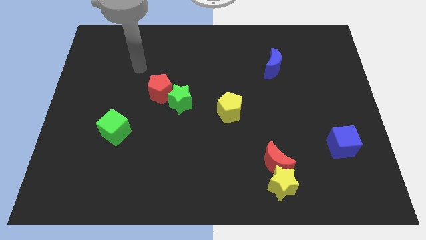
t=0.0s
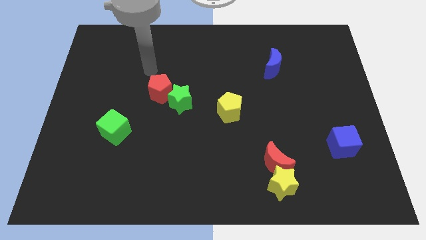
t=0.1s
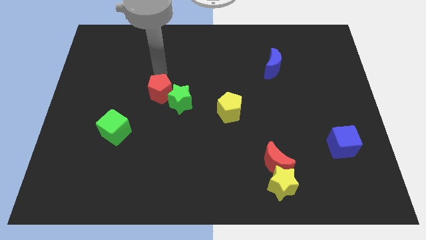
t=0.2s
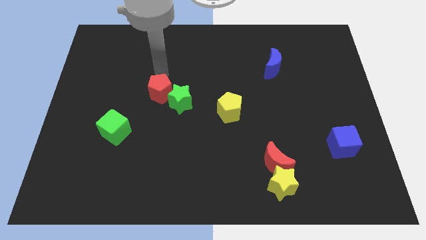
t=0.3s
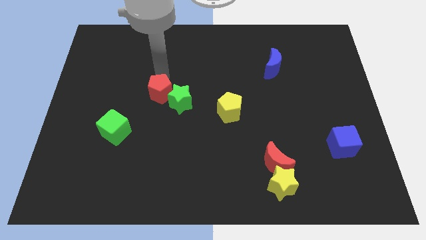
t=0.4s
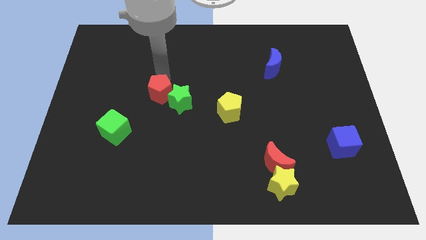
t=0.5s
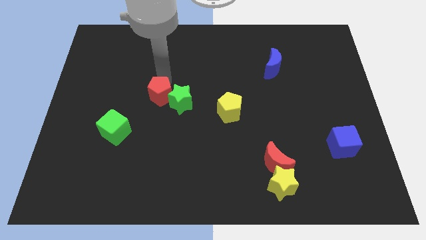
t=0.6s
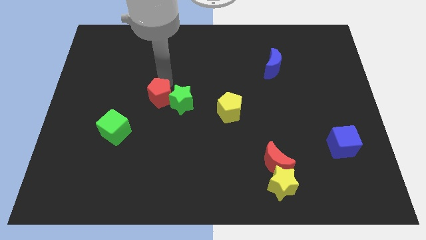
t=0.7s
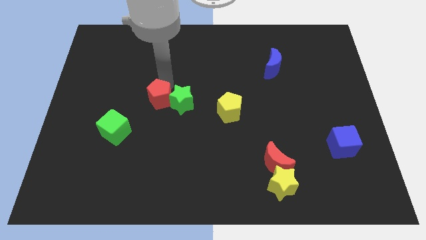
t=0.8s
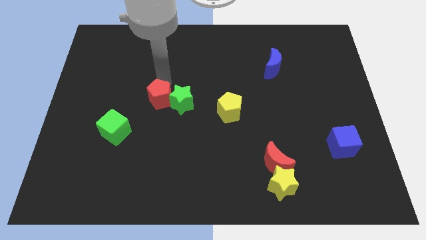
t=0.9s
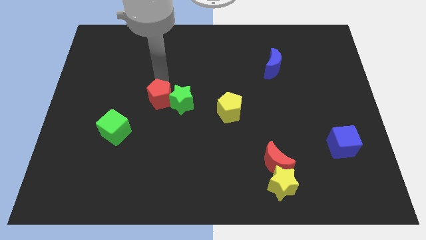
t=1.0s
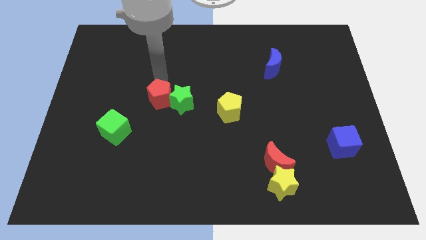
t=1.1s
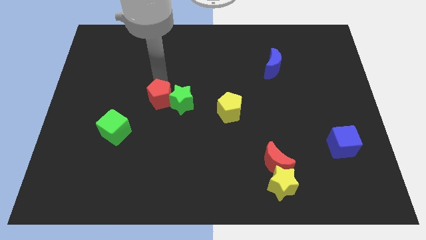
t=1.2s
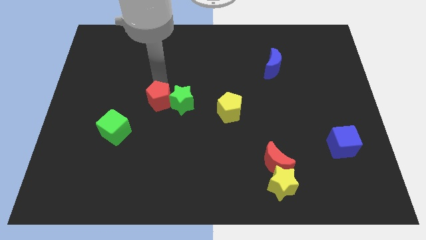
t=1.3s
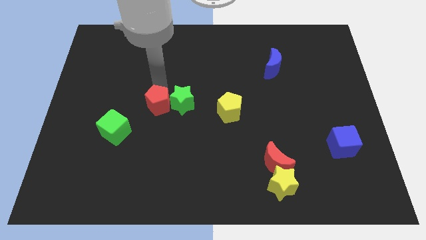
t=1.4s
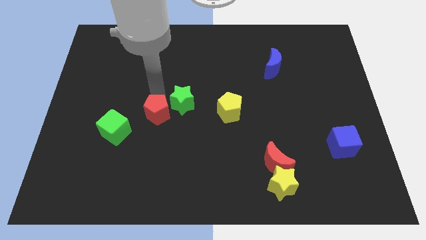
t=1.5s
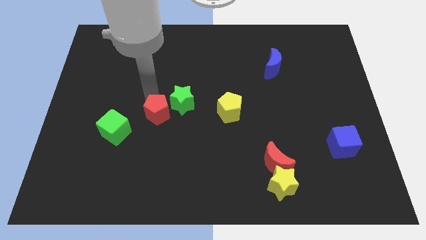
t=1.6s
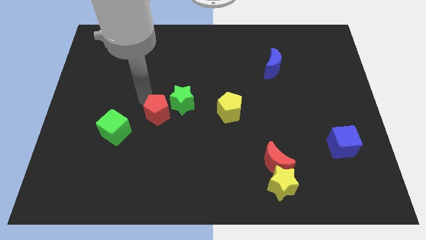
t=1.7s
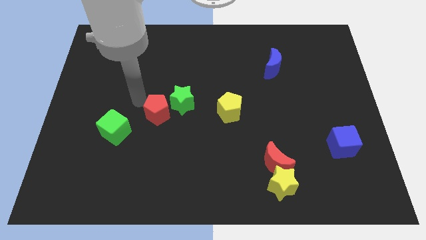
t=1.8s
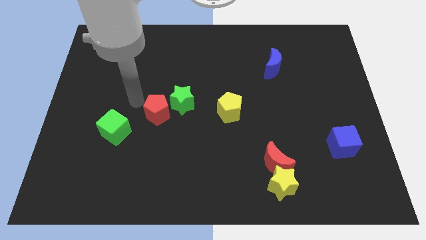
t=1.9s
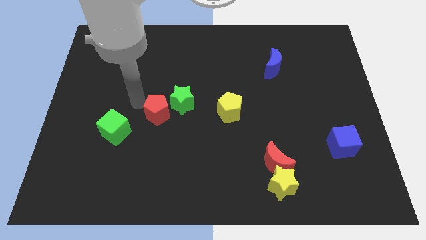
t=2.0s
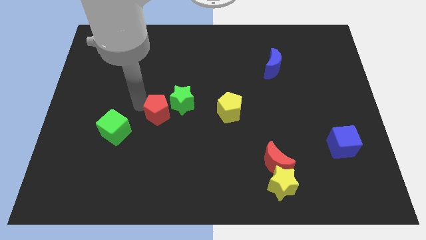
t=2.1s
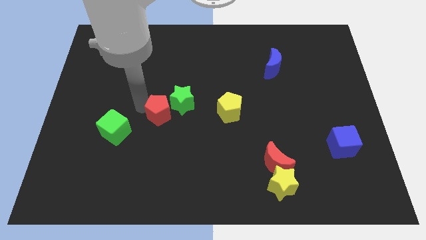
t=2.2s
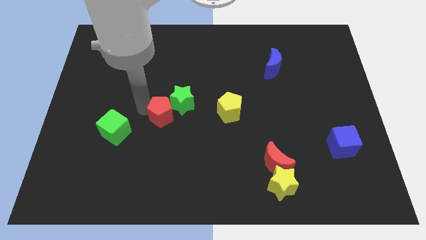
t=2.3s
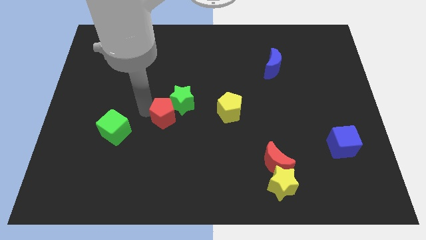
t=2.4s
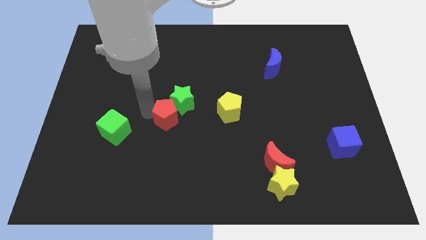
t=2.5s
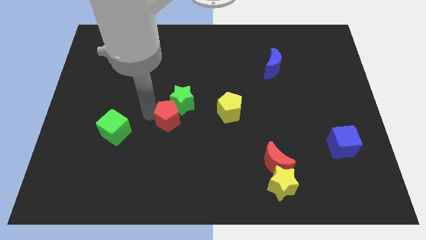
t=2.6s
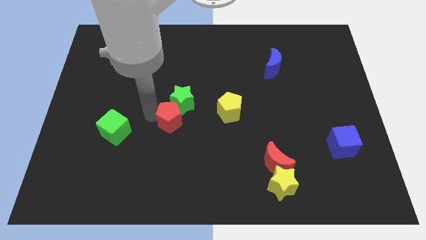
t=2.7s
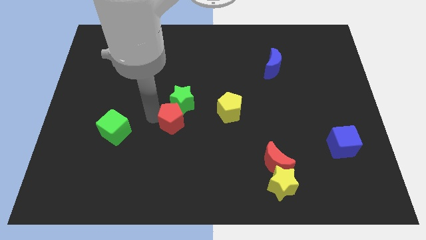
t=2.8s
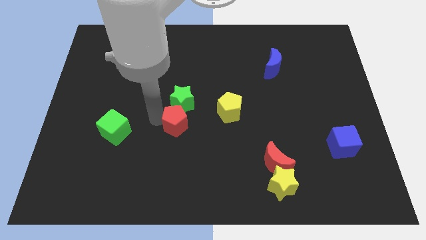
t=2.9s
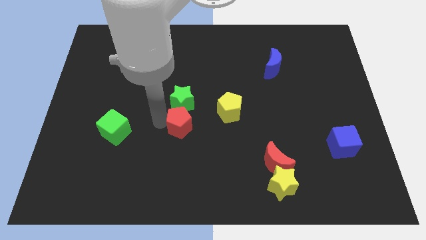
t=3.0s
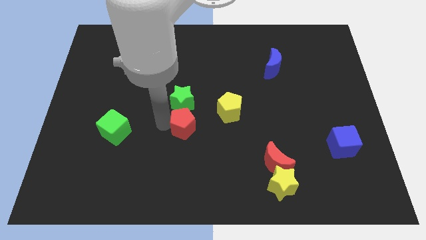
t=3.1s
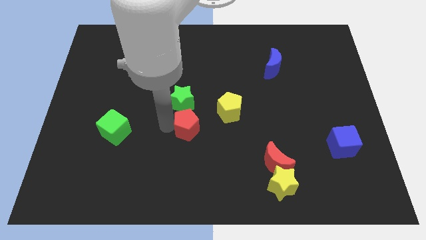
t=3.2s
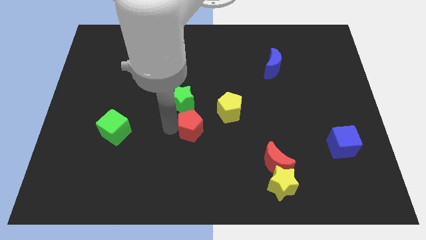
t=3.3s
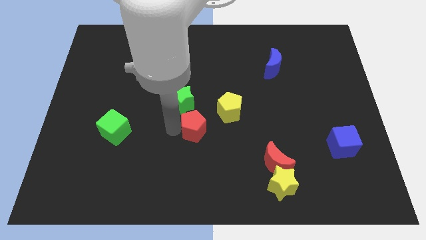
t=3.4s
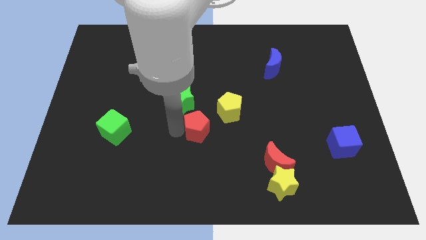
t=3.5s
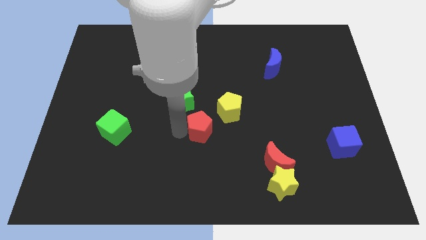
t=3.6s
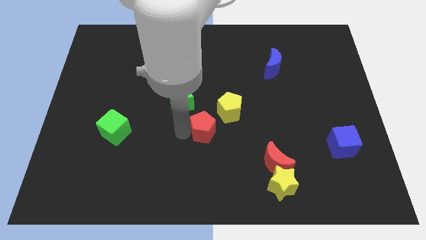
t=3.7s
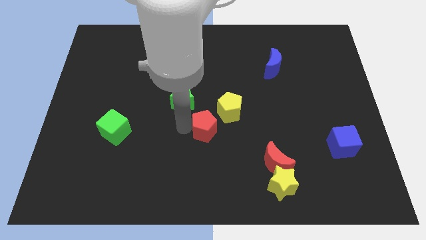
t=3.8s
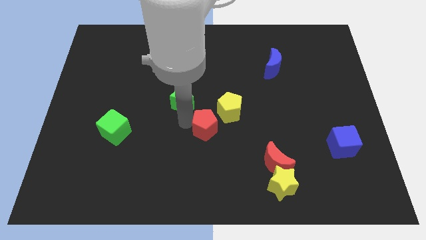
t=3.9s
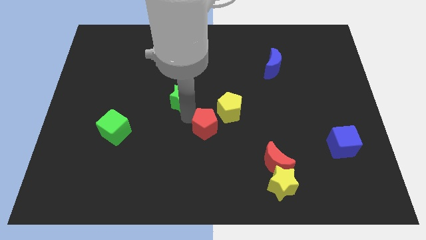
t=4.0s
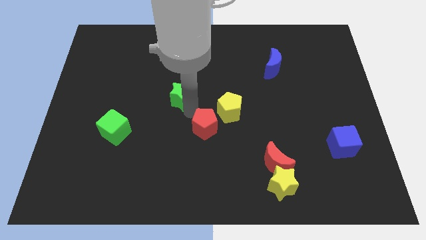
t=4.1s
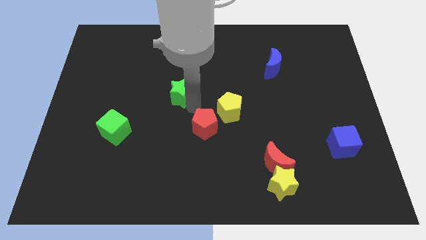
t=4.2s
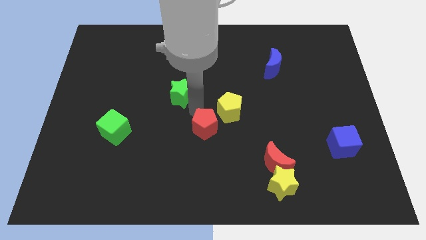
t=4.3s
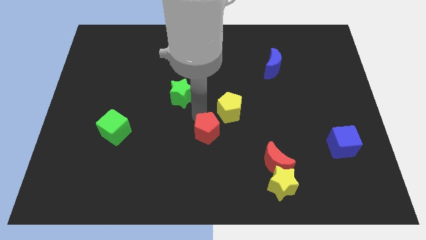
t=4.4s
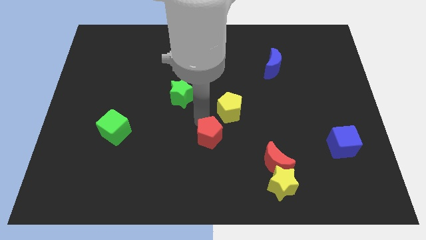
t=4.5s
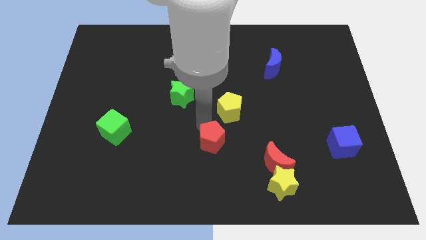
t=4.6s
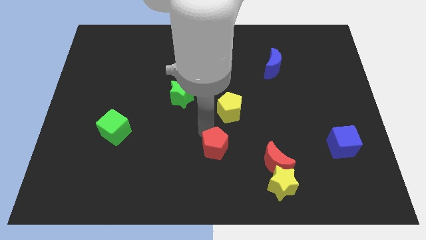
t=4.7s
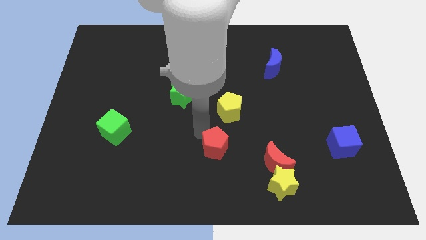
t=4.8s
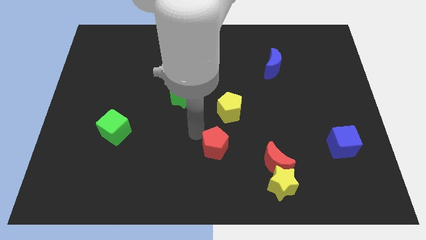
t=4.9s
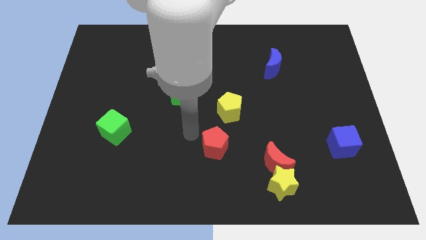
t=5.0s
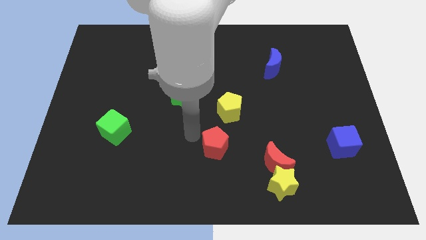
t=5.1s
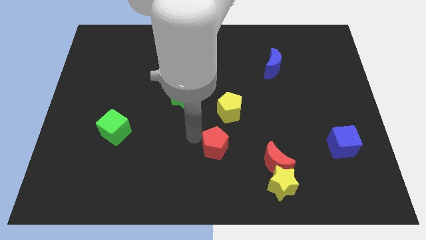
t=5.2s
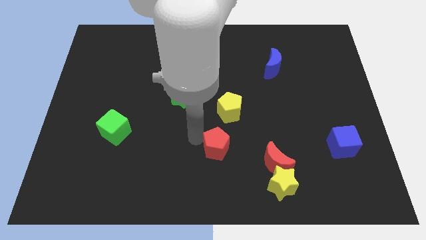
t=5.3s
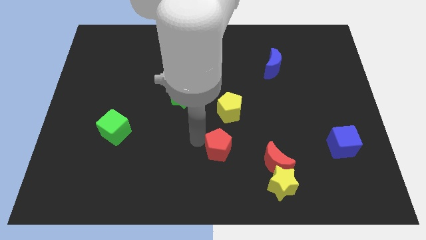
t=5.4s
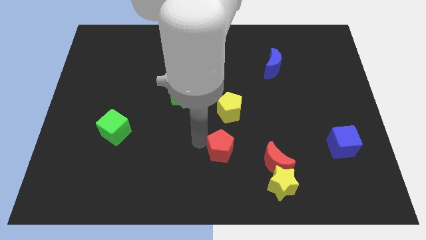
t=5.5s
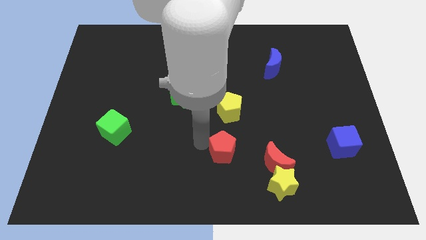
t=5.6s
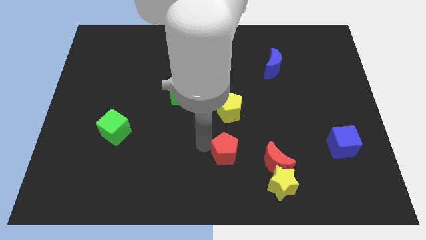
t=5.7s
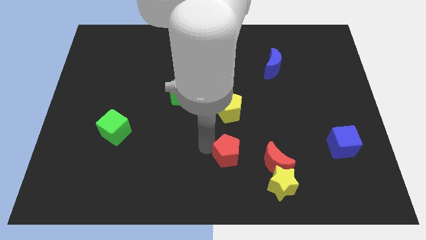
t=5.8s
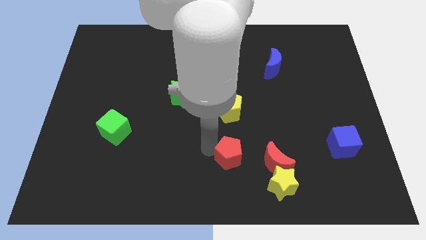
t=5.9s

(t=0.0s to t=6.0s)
put the red pentagon to the top left of the yellow star
